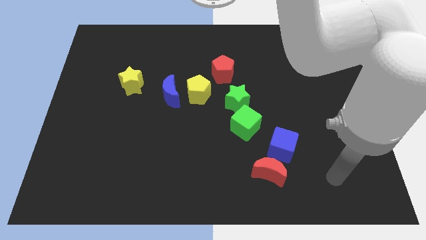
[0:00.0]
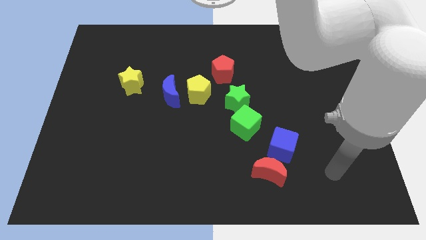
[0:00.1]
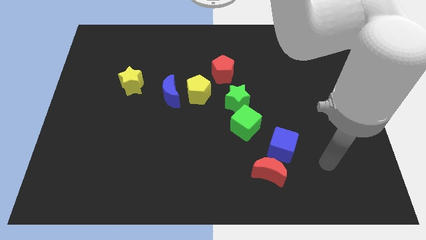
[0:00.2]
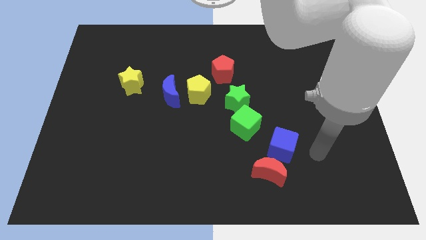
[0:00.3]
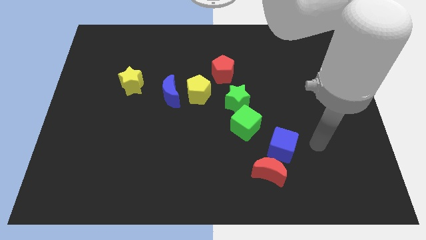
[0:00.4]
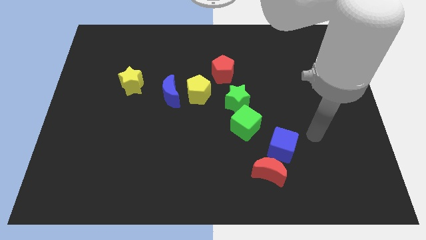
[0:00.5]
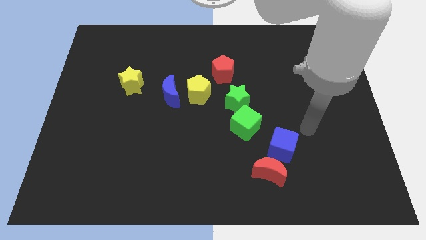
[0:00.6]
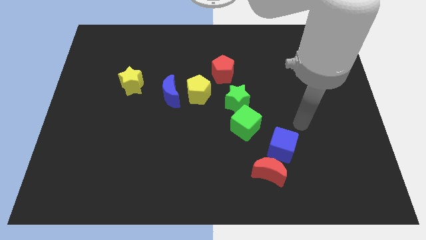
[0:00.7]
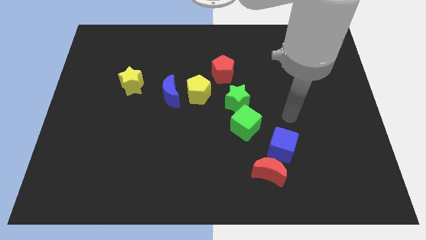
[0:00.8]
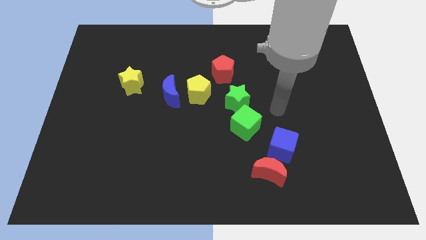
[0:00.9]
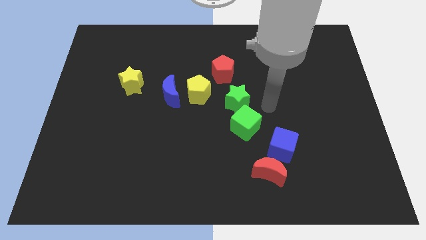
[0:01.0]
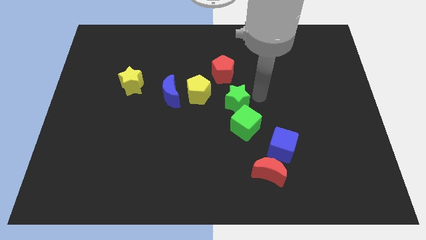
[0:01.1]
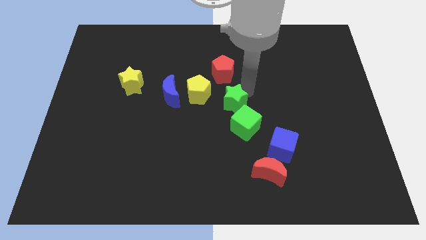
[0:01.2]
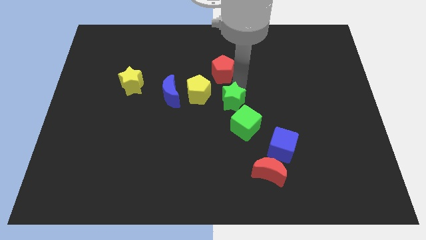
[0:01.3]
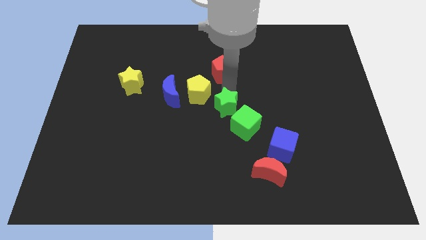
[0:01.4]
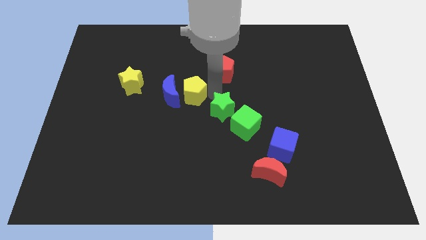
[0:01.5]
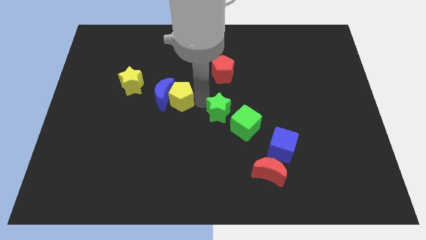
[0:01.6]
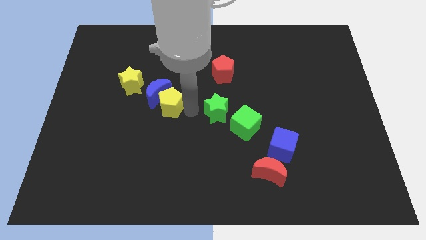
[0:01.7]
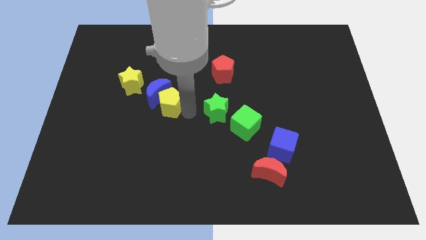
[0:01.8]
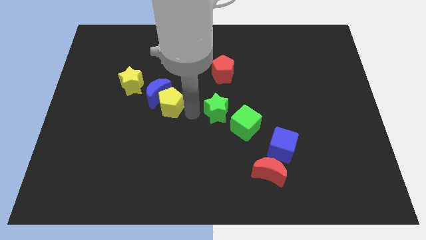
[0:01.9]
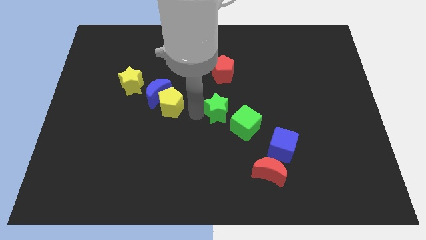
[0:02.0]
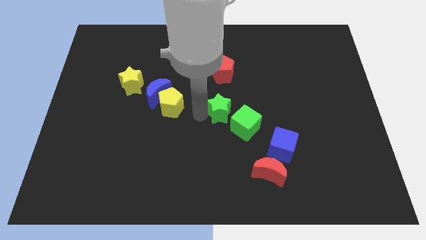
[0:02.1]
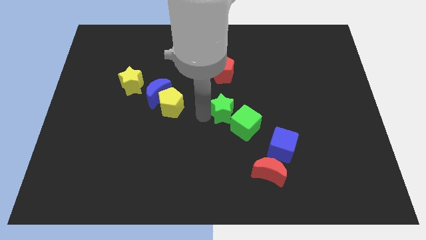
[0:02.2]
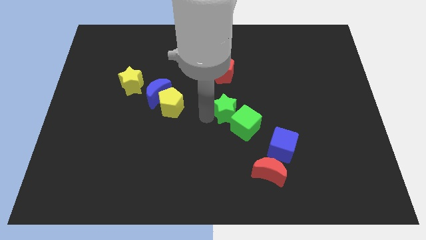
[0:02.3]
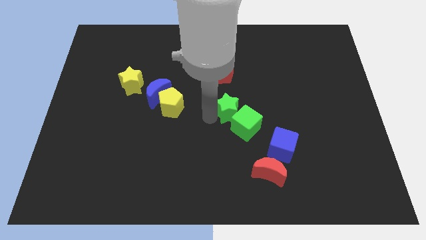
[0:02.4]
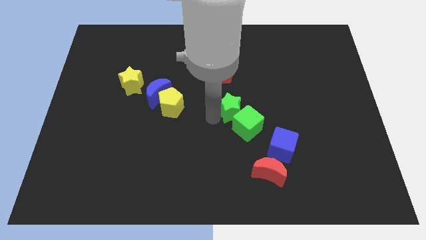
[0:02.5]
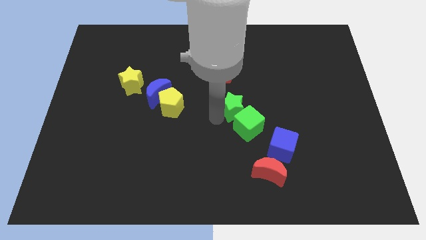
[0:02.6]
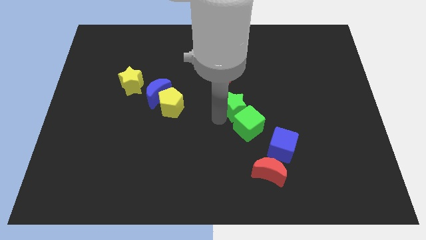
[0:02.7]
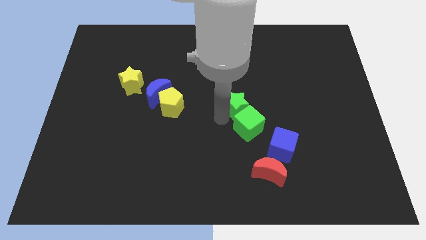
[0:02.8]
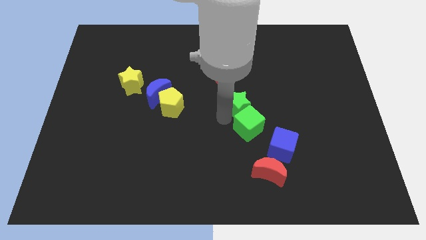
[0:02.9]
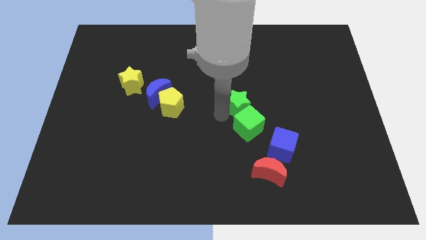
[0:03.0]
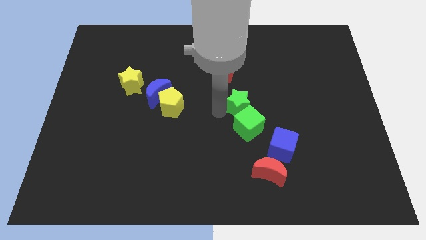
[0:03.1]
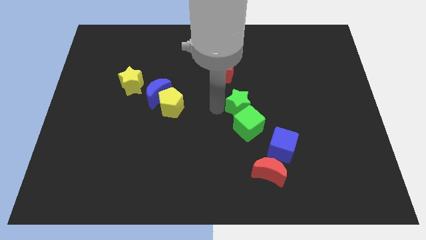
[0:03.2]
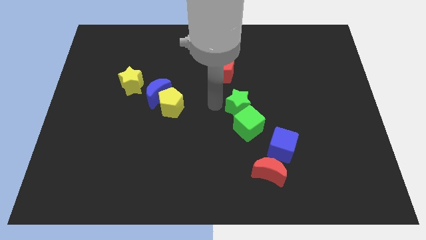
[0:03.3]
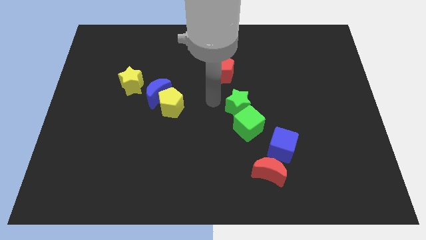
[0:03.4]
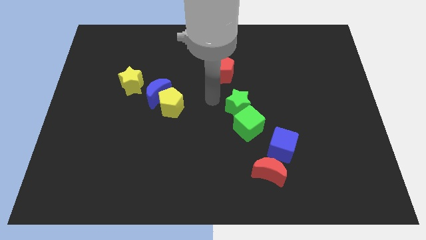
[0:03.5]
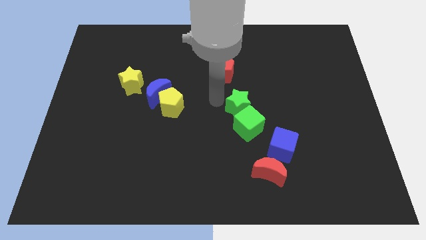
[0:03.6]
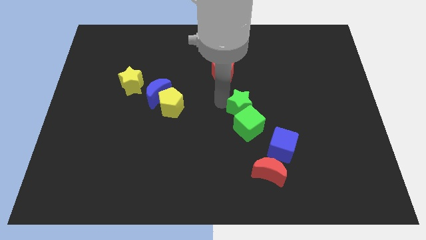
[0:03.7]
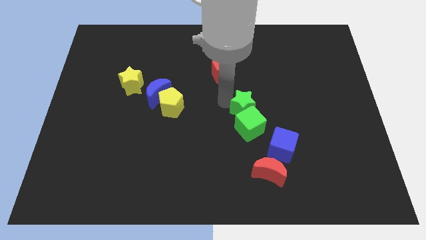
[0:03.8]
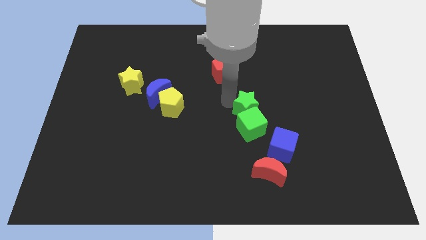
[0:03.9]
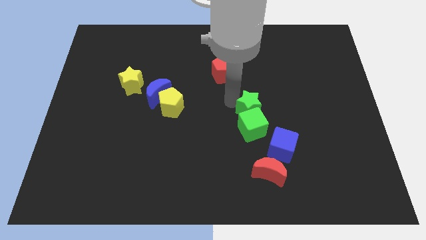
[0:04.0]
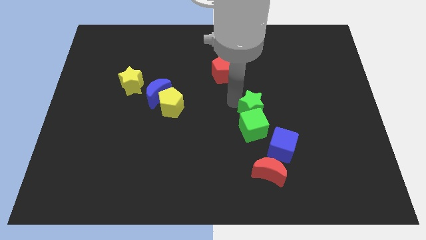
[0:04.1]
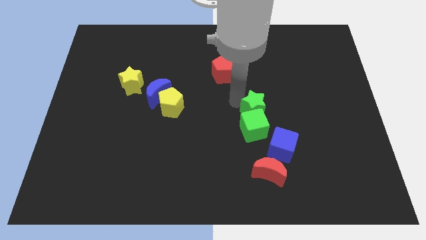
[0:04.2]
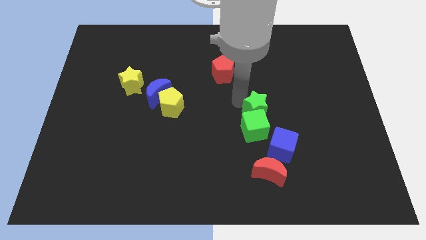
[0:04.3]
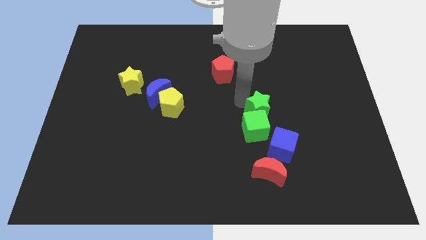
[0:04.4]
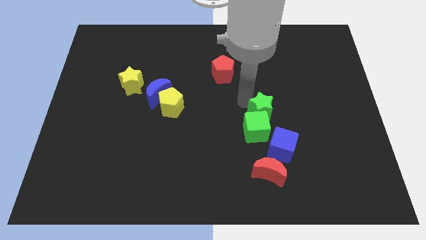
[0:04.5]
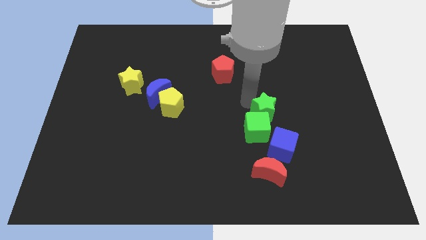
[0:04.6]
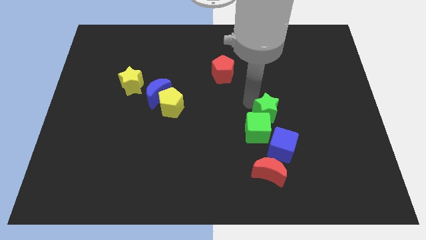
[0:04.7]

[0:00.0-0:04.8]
push the green star downwards and right diagonally a little

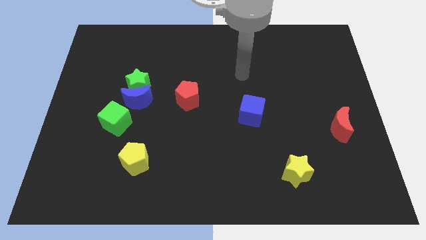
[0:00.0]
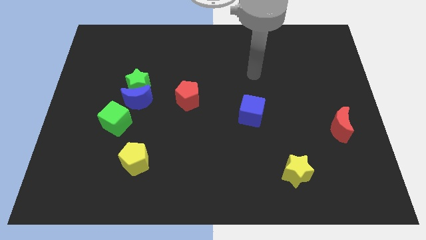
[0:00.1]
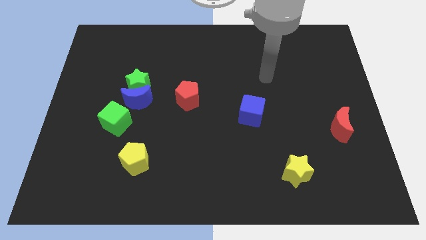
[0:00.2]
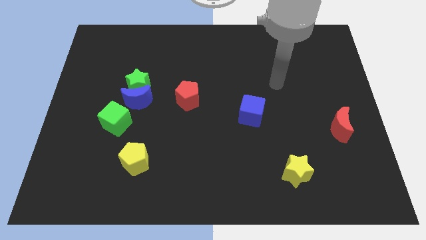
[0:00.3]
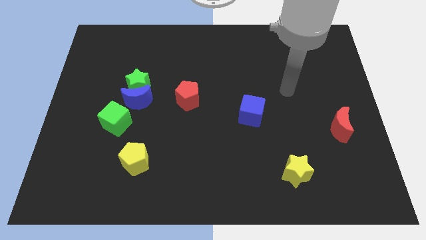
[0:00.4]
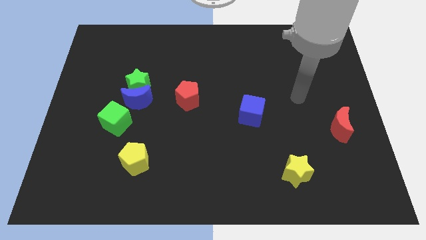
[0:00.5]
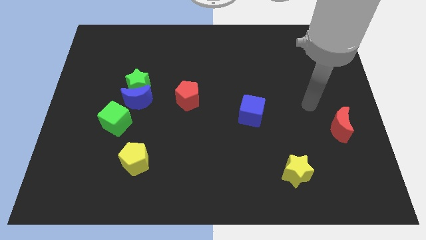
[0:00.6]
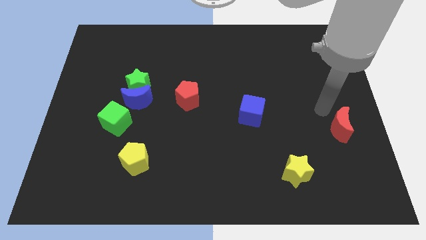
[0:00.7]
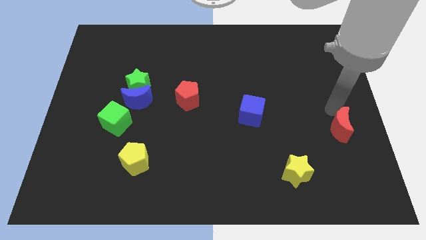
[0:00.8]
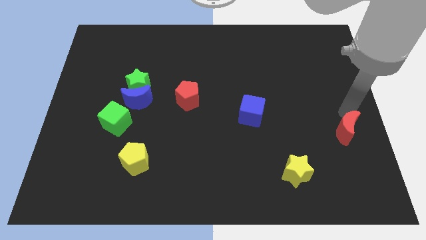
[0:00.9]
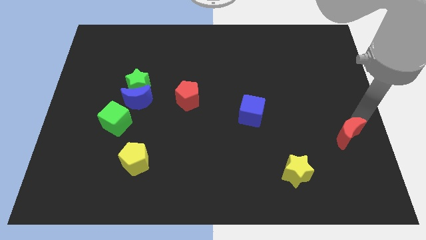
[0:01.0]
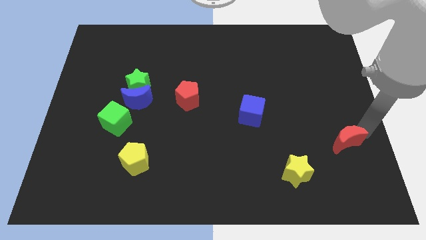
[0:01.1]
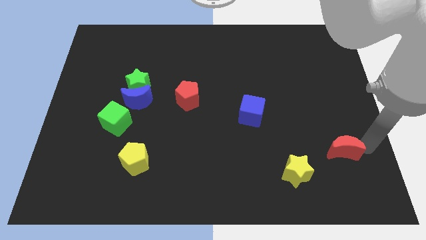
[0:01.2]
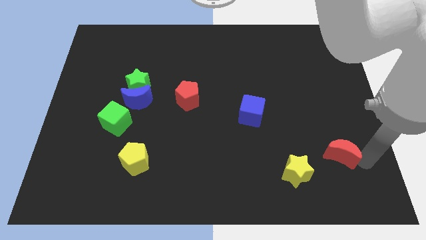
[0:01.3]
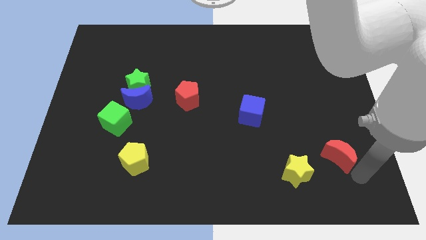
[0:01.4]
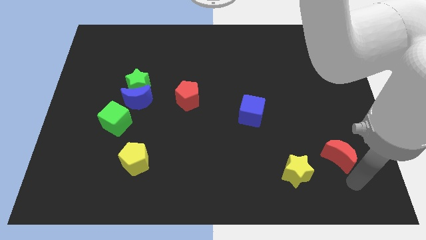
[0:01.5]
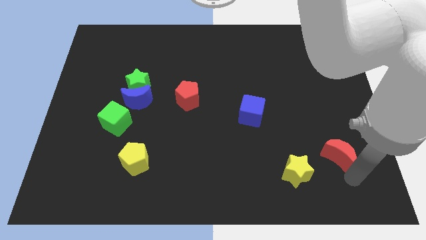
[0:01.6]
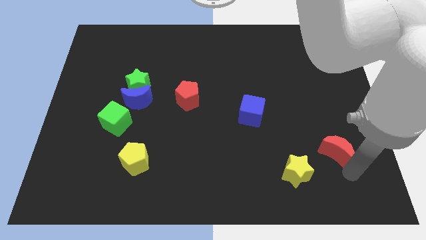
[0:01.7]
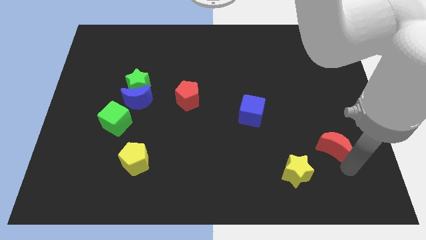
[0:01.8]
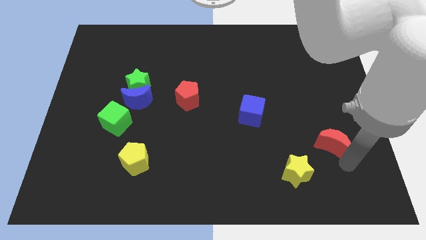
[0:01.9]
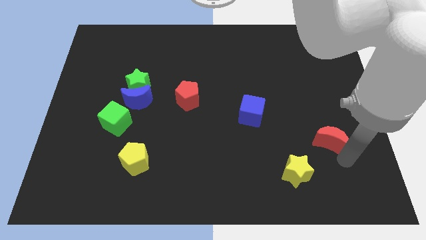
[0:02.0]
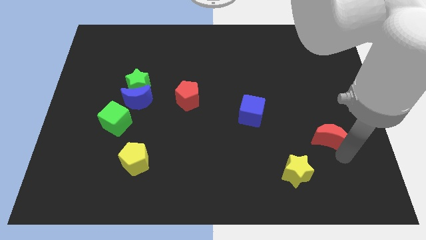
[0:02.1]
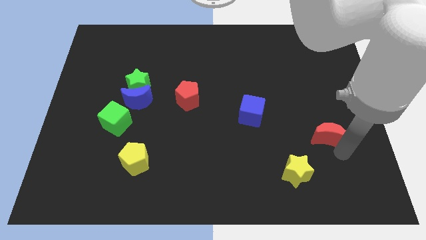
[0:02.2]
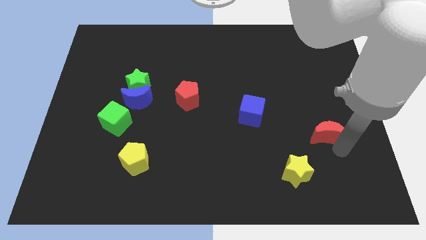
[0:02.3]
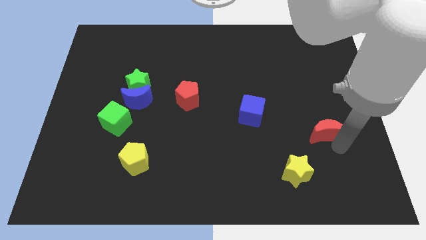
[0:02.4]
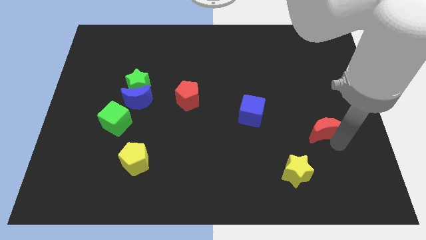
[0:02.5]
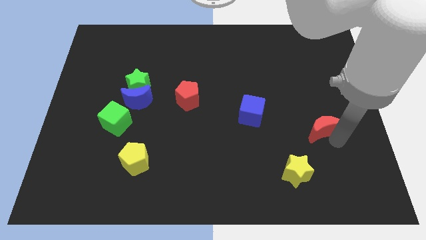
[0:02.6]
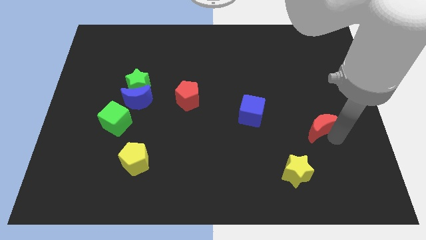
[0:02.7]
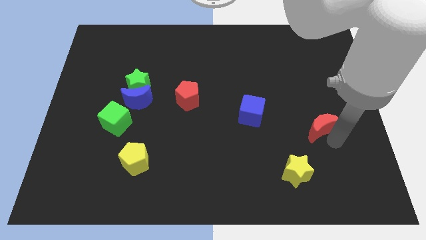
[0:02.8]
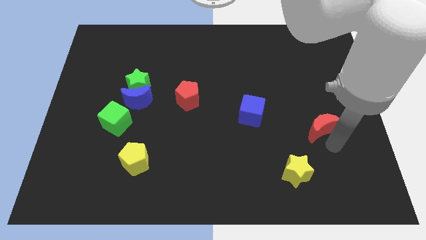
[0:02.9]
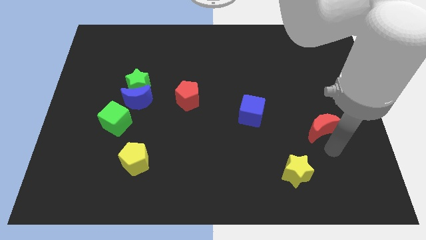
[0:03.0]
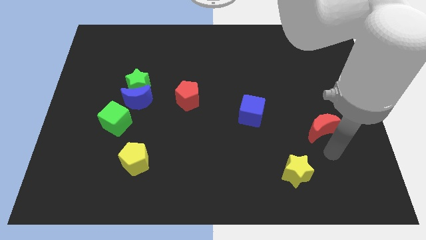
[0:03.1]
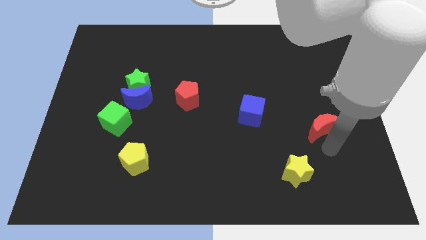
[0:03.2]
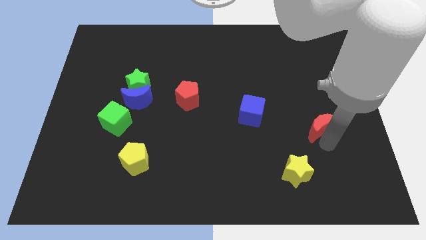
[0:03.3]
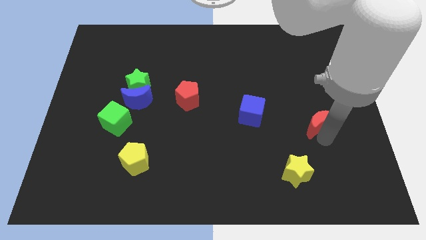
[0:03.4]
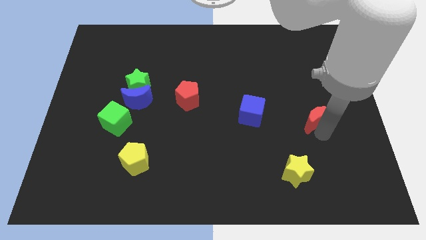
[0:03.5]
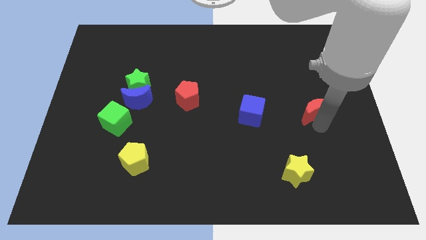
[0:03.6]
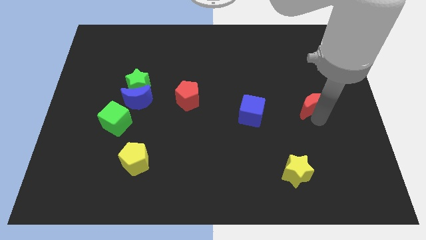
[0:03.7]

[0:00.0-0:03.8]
push the red moon upwards and left diagonally somewhat
